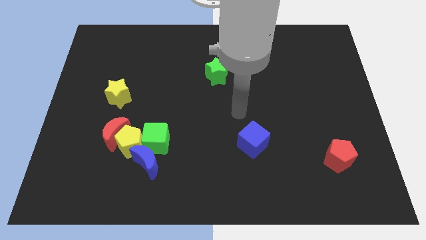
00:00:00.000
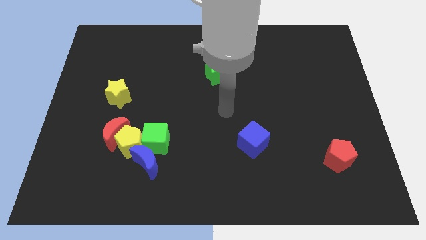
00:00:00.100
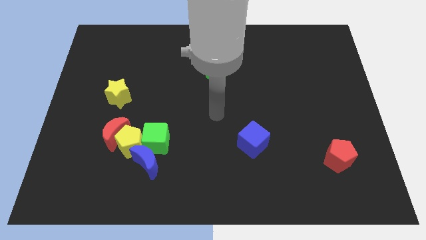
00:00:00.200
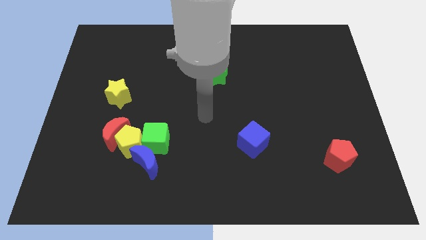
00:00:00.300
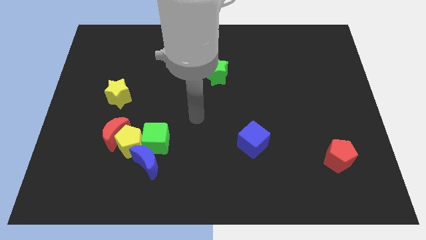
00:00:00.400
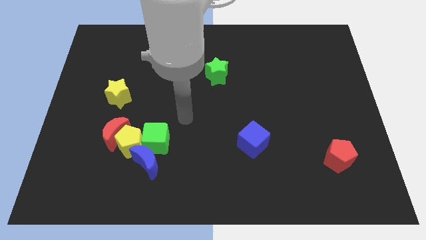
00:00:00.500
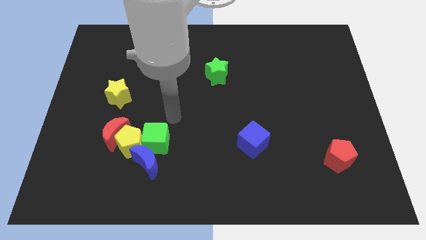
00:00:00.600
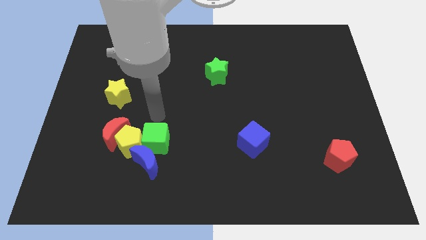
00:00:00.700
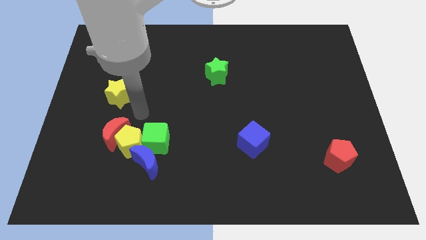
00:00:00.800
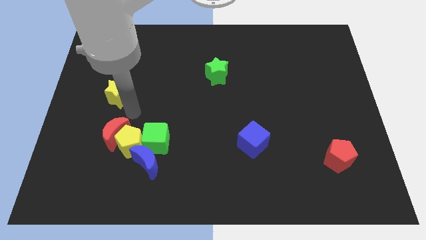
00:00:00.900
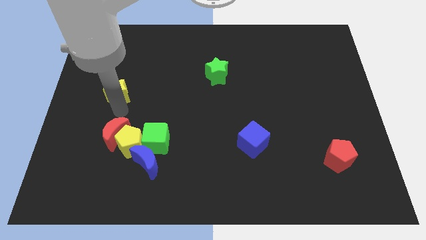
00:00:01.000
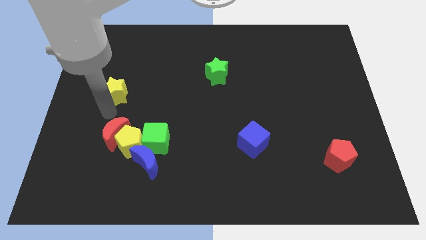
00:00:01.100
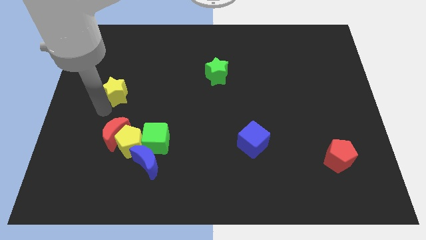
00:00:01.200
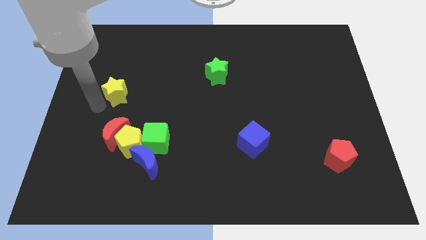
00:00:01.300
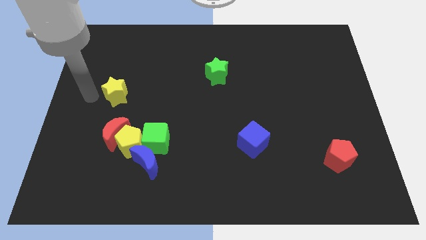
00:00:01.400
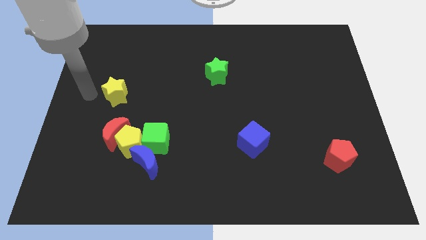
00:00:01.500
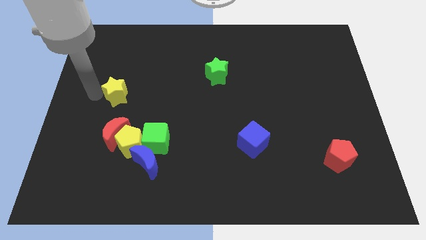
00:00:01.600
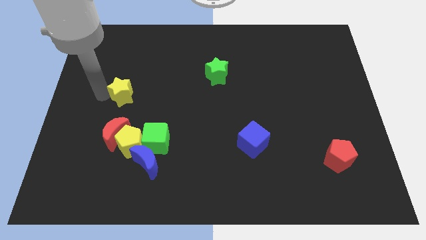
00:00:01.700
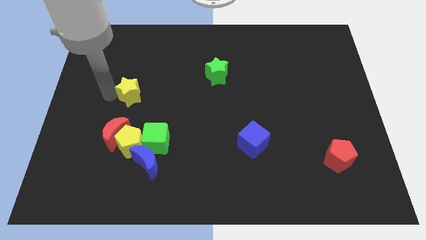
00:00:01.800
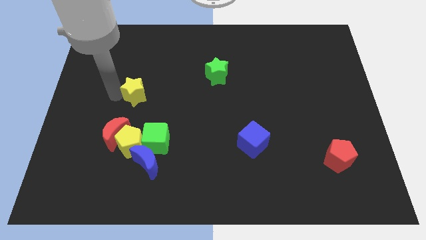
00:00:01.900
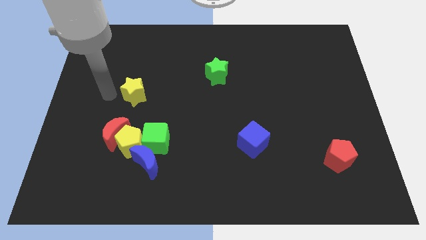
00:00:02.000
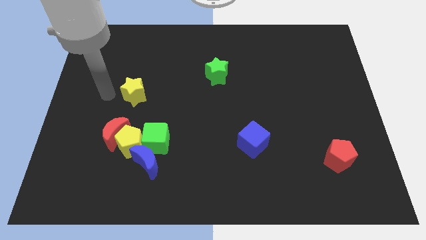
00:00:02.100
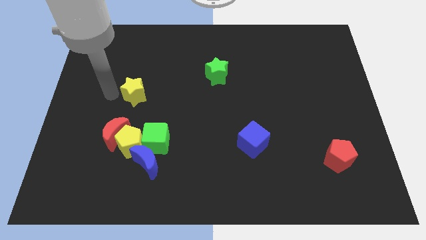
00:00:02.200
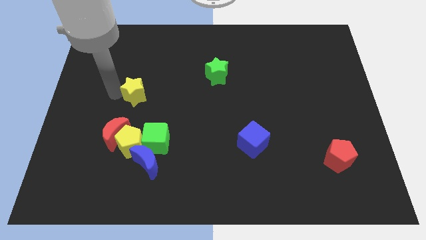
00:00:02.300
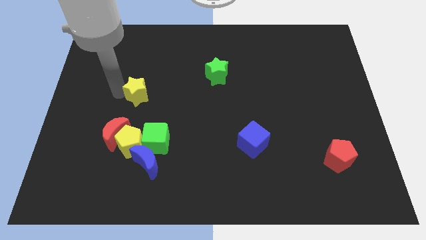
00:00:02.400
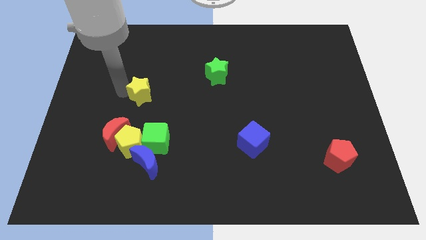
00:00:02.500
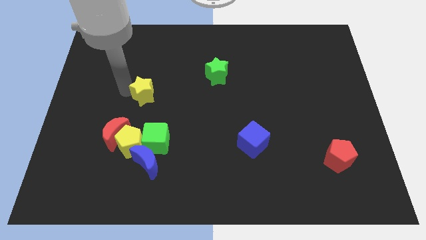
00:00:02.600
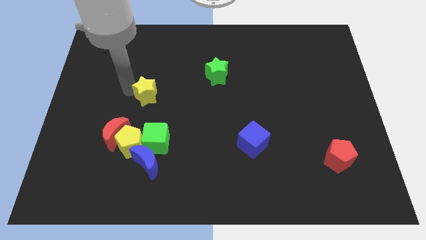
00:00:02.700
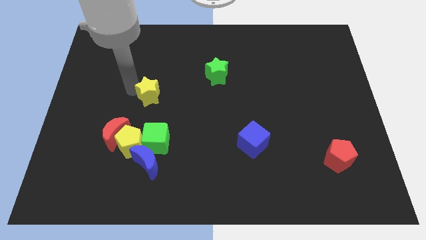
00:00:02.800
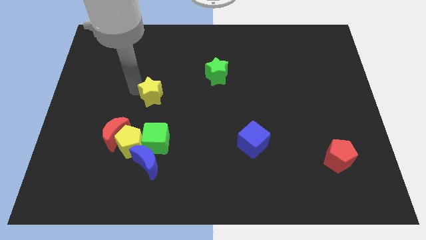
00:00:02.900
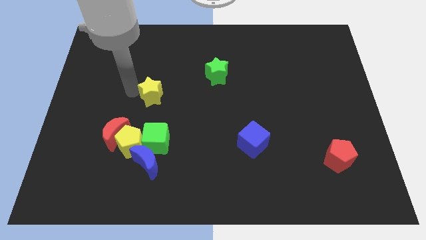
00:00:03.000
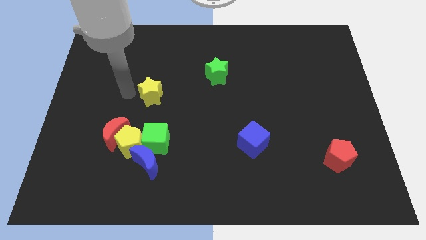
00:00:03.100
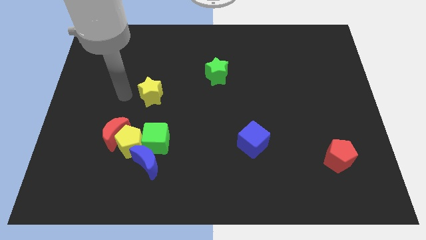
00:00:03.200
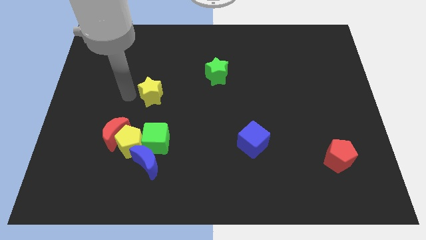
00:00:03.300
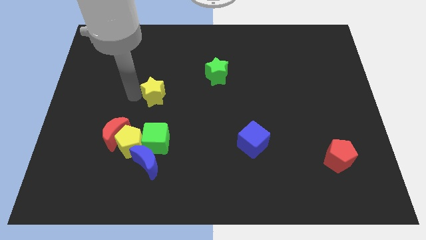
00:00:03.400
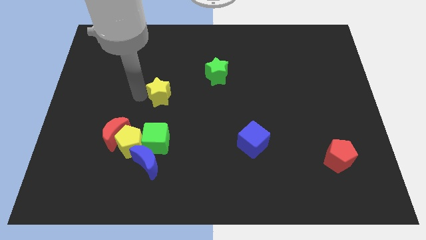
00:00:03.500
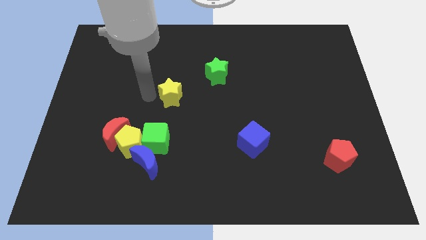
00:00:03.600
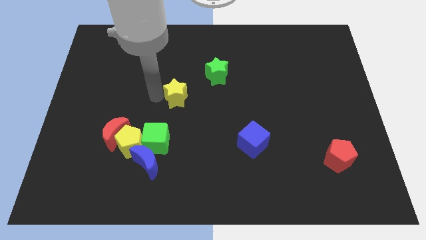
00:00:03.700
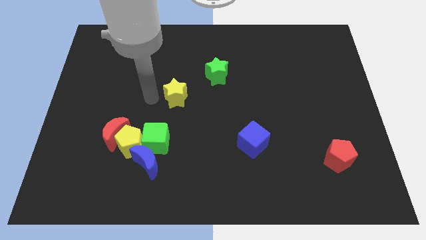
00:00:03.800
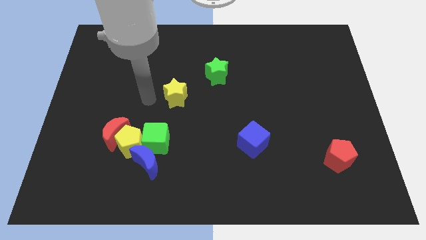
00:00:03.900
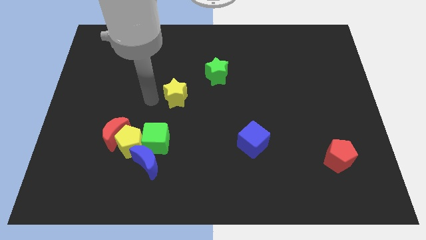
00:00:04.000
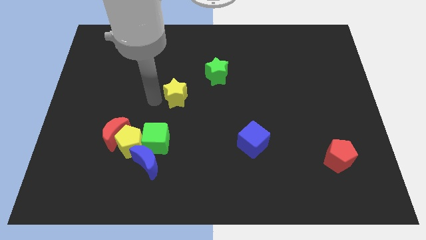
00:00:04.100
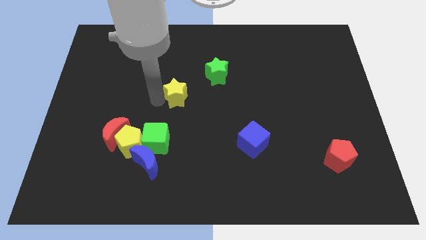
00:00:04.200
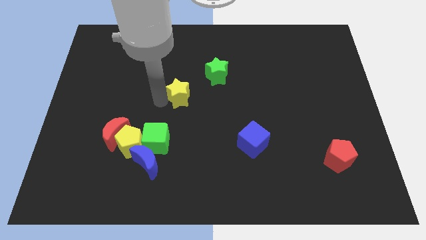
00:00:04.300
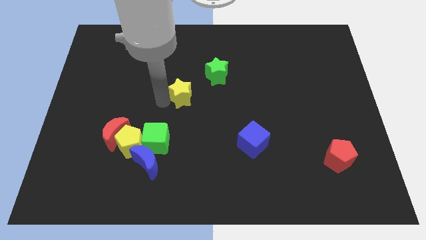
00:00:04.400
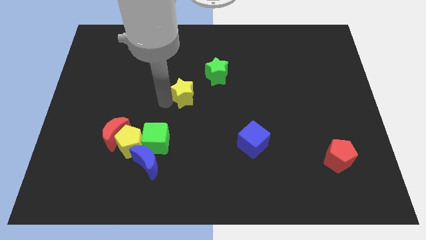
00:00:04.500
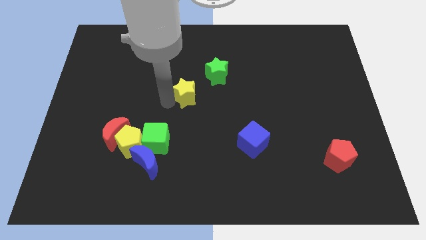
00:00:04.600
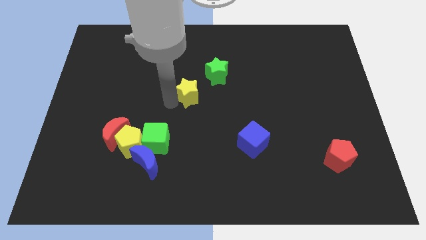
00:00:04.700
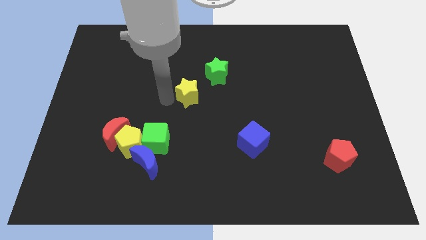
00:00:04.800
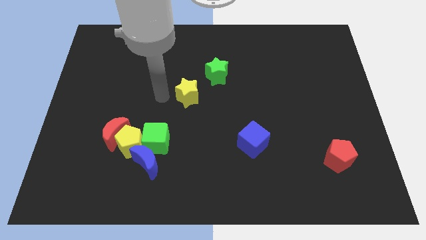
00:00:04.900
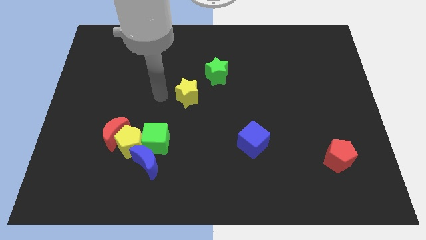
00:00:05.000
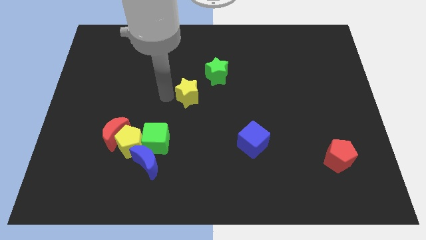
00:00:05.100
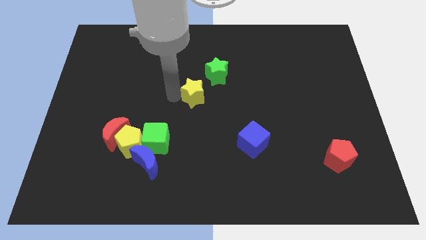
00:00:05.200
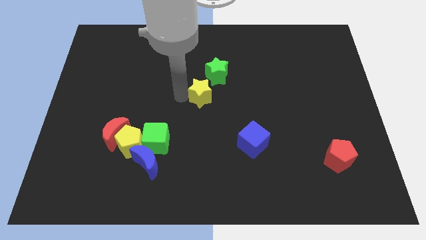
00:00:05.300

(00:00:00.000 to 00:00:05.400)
push the yellow star to the right

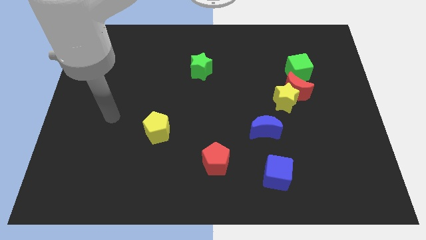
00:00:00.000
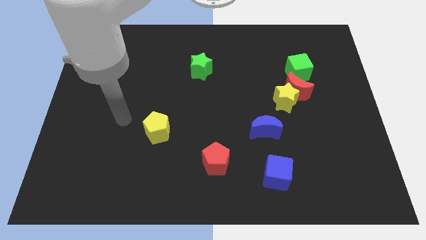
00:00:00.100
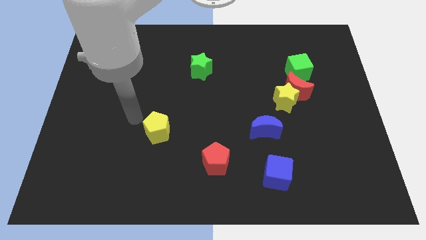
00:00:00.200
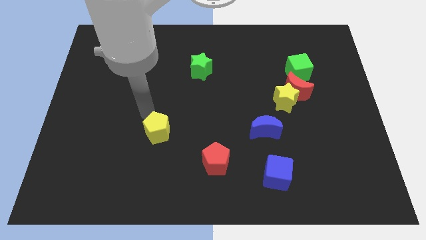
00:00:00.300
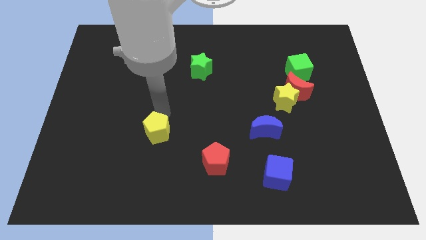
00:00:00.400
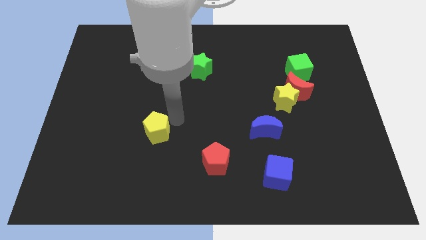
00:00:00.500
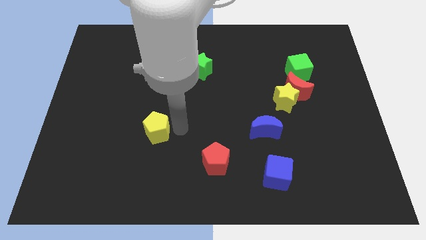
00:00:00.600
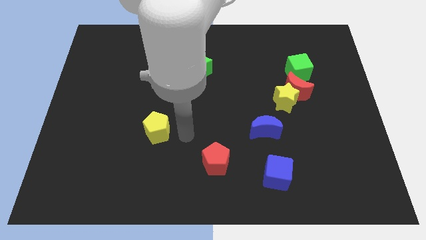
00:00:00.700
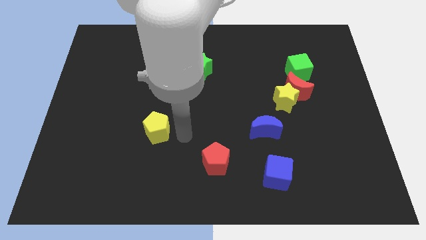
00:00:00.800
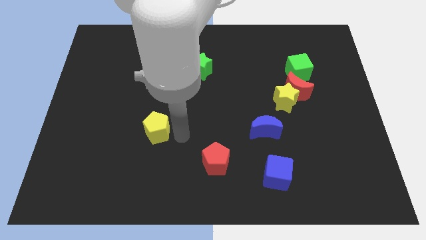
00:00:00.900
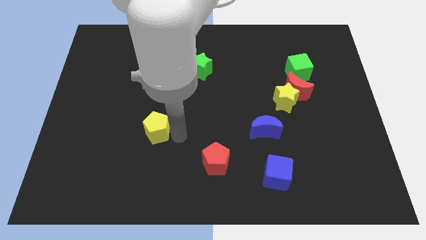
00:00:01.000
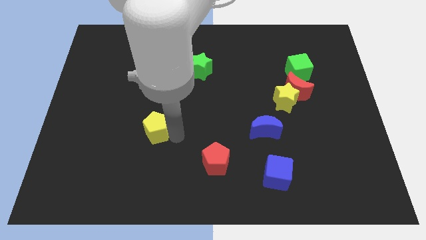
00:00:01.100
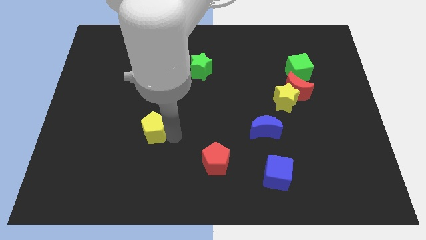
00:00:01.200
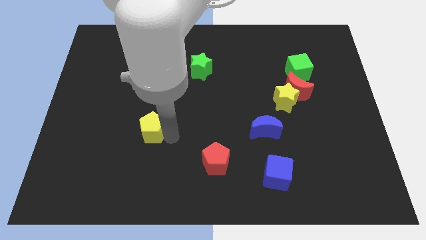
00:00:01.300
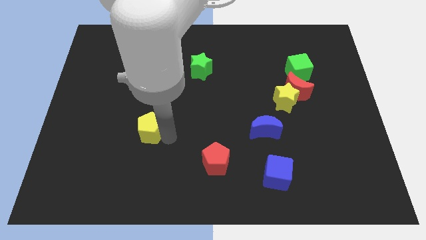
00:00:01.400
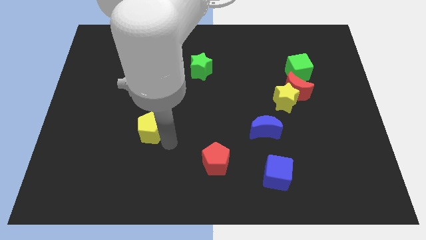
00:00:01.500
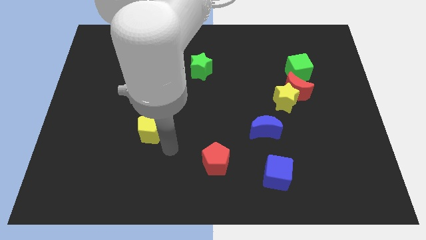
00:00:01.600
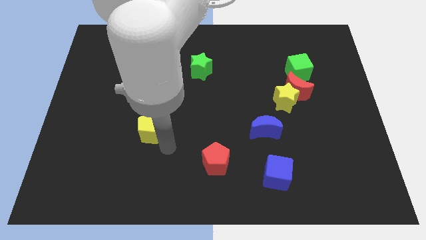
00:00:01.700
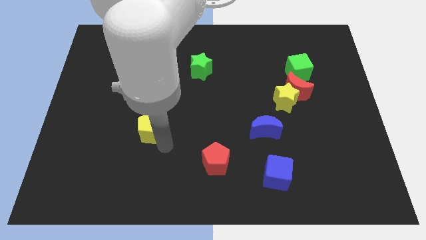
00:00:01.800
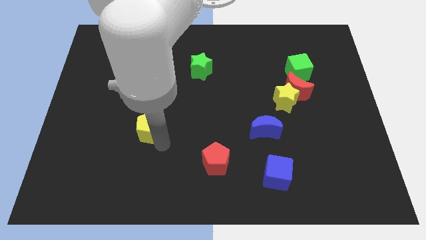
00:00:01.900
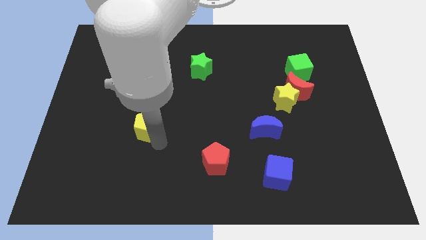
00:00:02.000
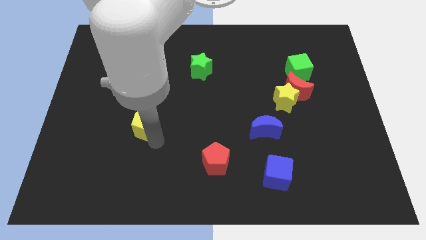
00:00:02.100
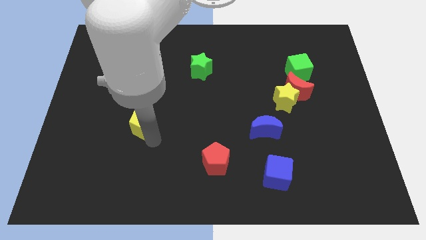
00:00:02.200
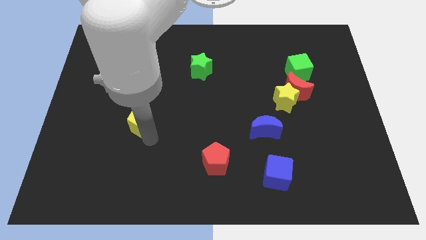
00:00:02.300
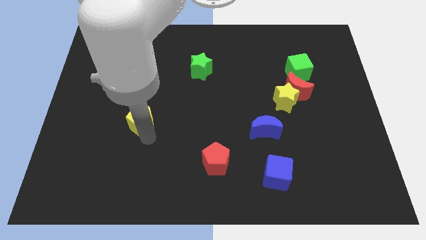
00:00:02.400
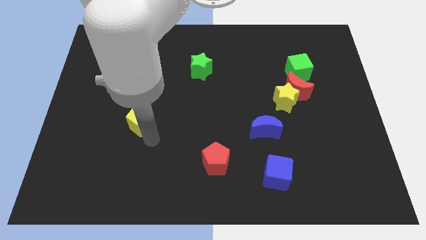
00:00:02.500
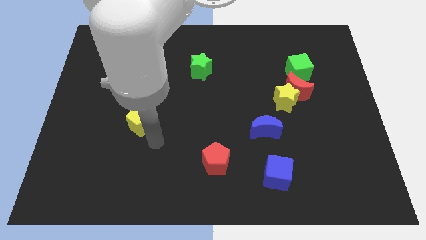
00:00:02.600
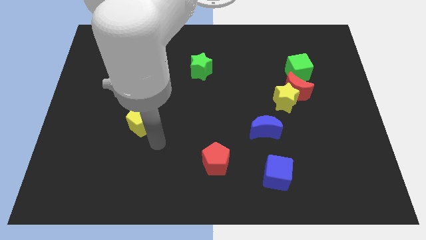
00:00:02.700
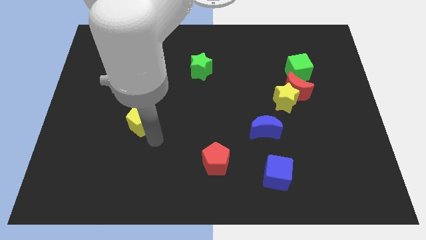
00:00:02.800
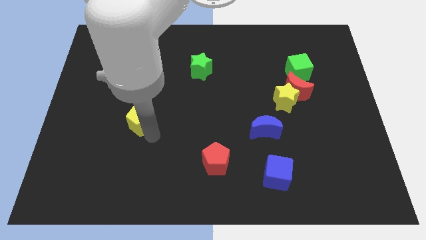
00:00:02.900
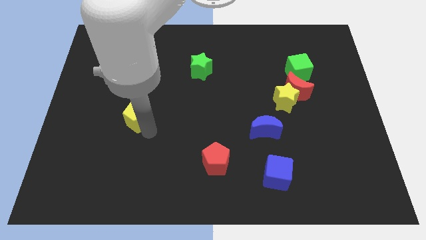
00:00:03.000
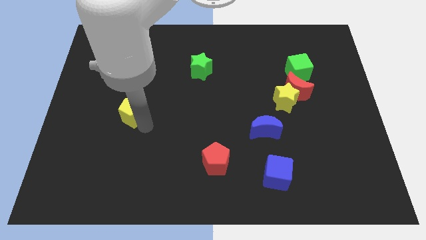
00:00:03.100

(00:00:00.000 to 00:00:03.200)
slightly slide the yellow pentagon up and left
